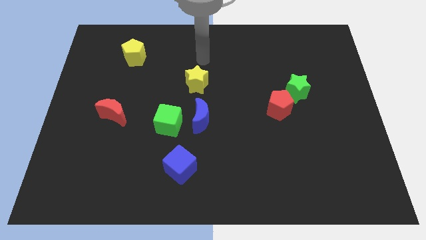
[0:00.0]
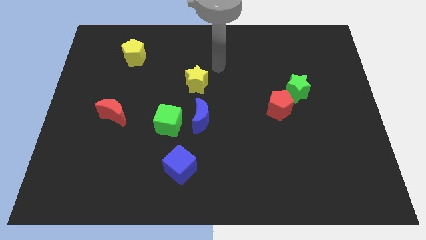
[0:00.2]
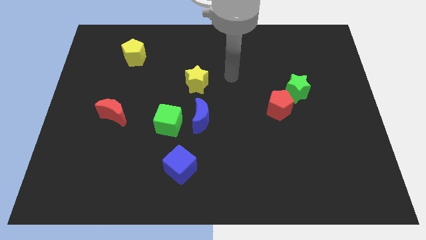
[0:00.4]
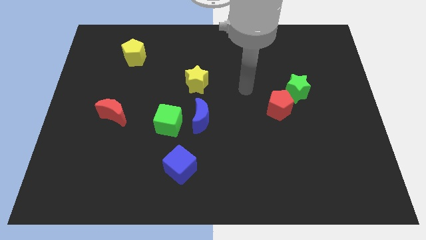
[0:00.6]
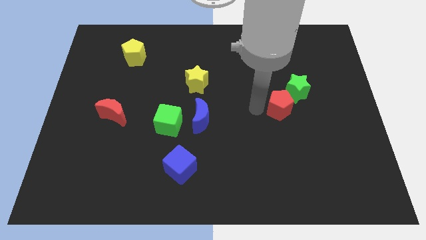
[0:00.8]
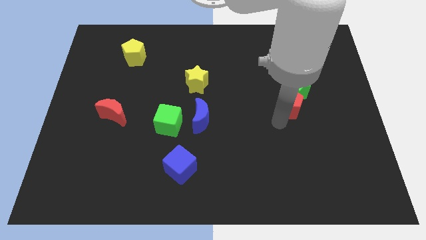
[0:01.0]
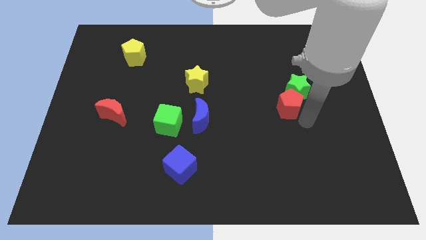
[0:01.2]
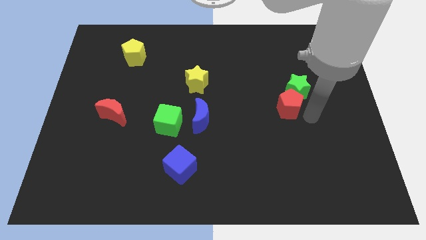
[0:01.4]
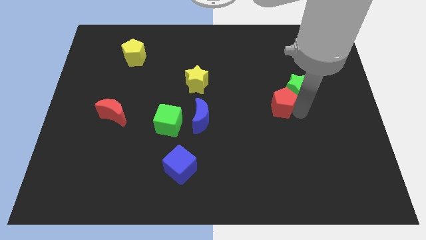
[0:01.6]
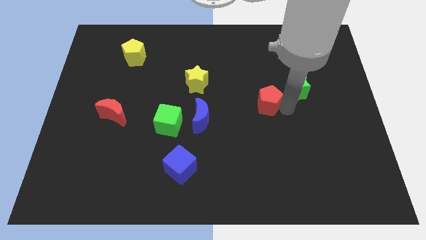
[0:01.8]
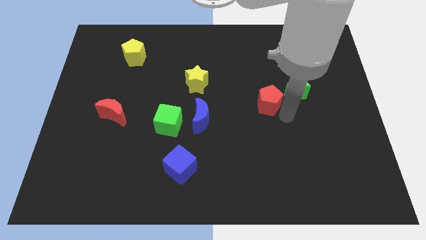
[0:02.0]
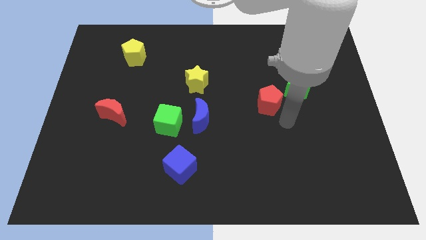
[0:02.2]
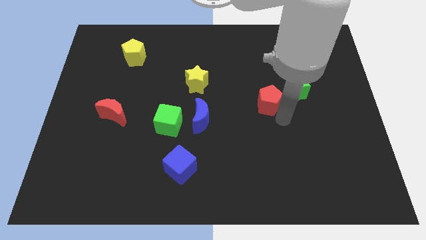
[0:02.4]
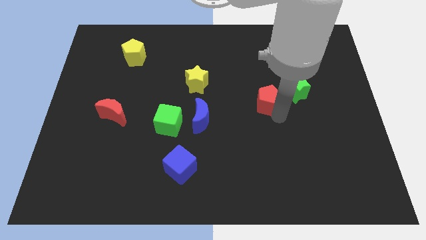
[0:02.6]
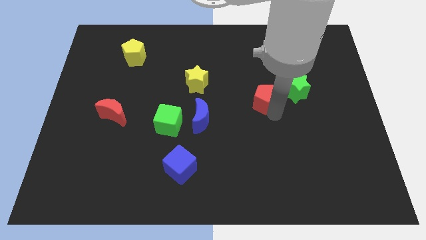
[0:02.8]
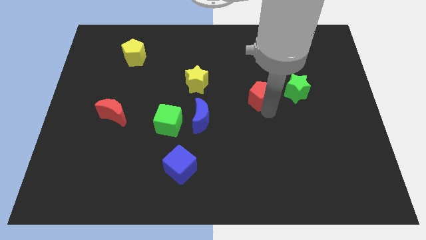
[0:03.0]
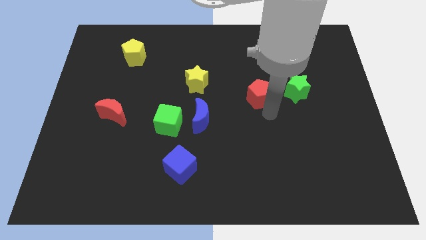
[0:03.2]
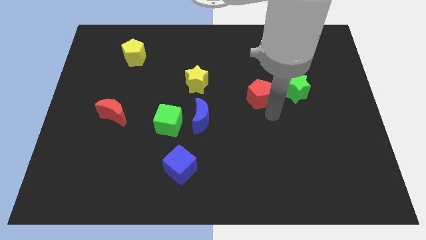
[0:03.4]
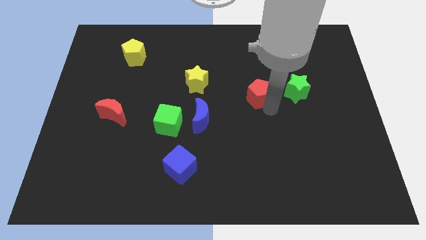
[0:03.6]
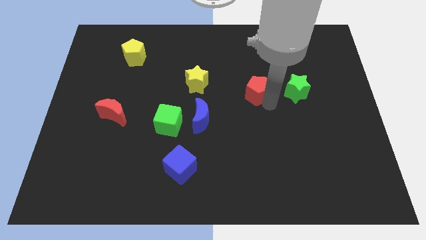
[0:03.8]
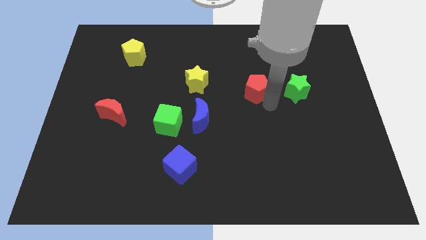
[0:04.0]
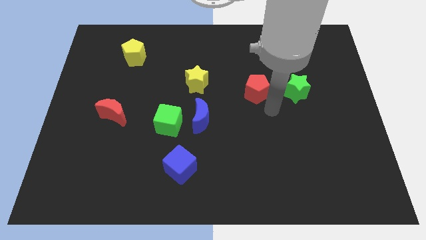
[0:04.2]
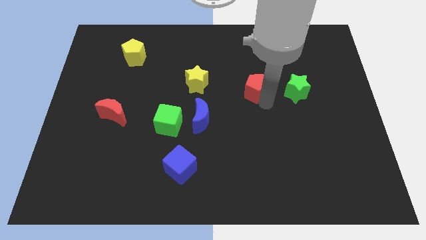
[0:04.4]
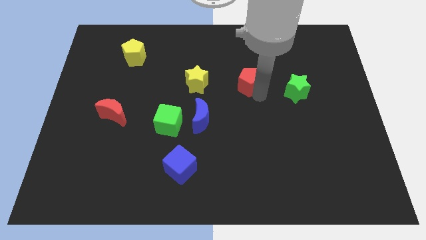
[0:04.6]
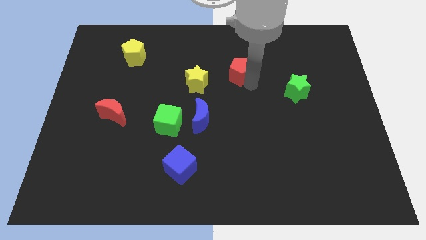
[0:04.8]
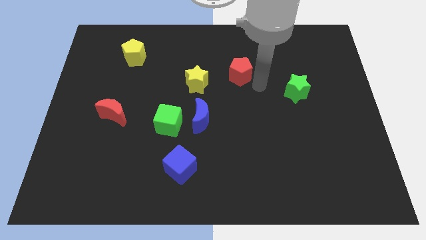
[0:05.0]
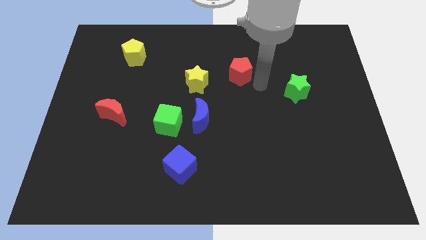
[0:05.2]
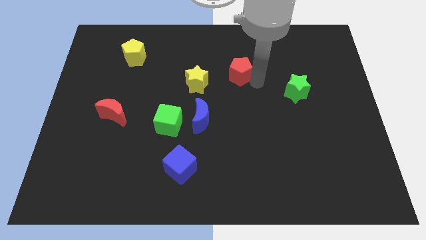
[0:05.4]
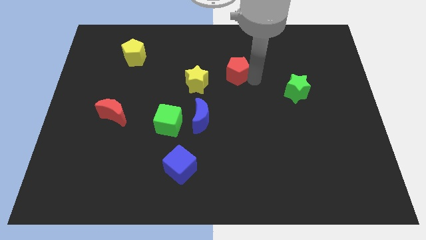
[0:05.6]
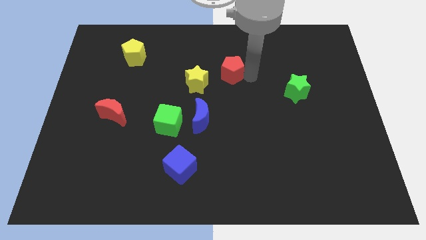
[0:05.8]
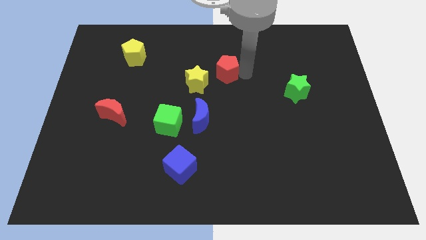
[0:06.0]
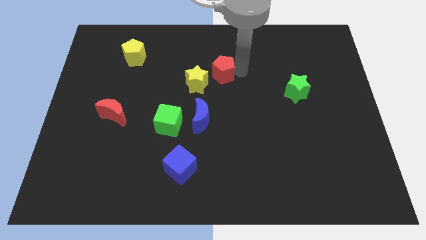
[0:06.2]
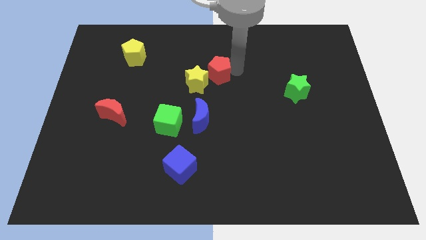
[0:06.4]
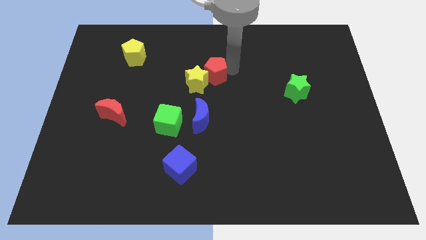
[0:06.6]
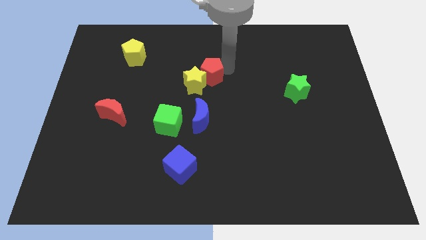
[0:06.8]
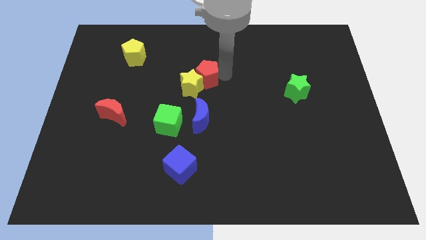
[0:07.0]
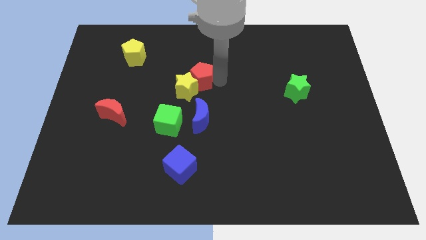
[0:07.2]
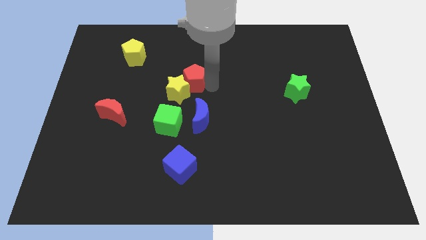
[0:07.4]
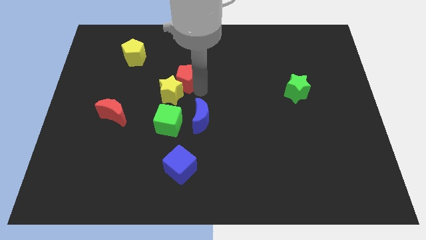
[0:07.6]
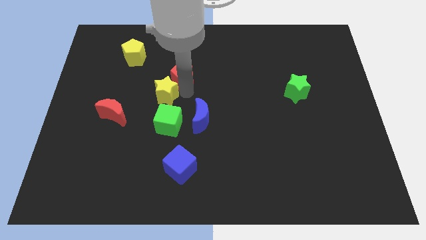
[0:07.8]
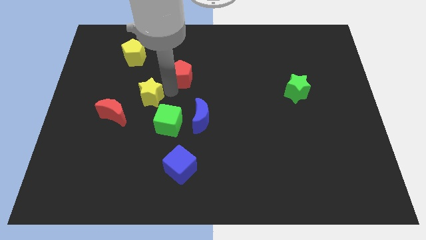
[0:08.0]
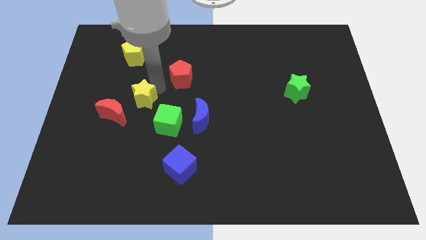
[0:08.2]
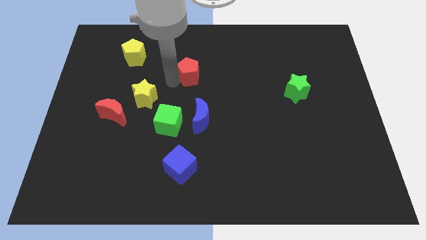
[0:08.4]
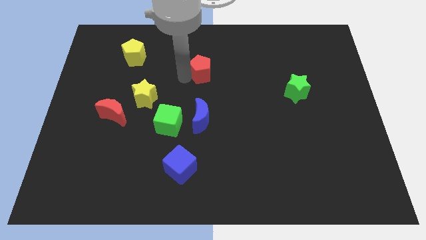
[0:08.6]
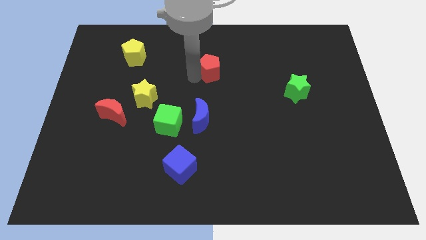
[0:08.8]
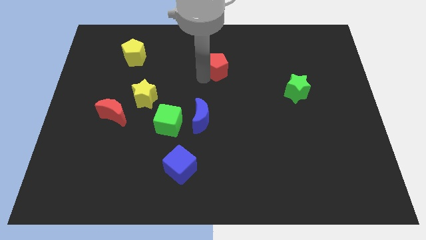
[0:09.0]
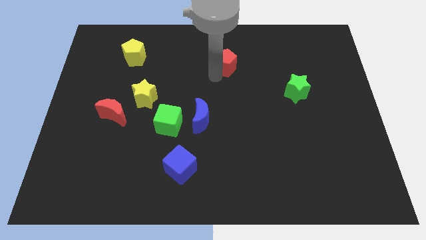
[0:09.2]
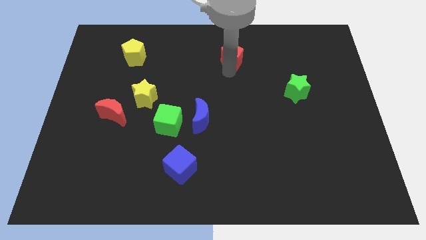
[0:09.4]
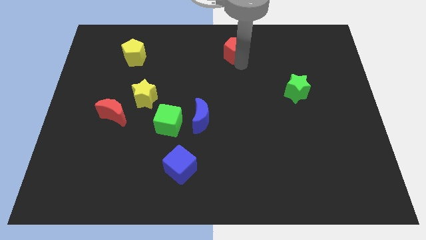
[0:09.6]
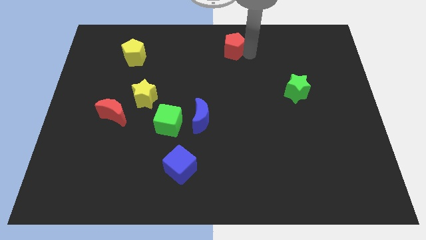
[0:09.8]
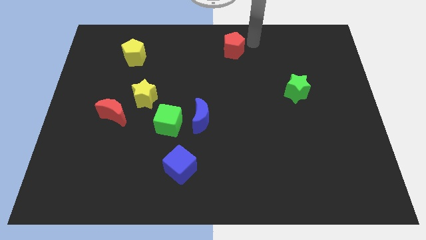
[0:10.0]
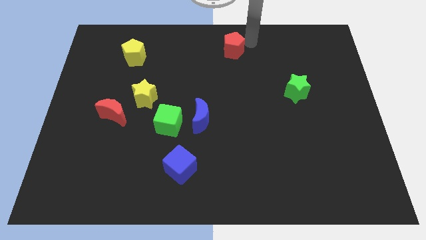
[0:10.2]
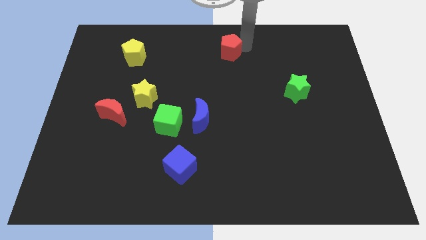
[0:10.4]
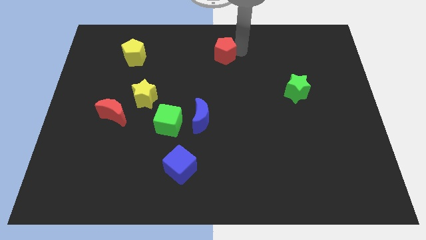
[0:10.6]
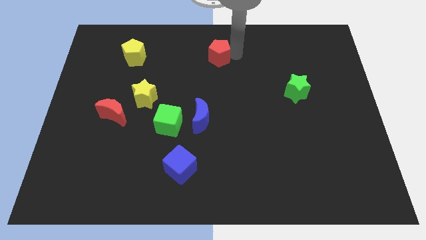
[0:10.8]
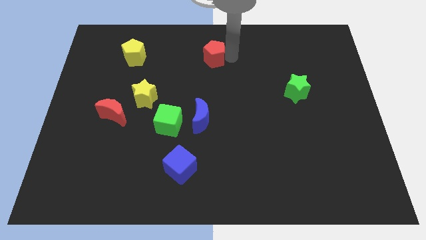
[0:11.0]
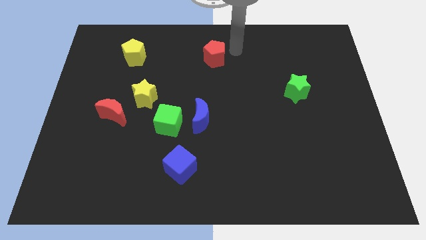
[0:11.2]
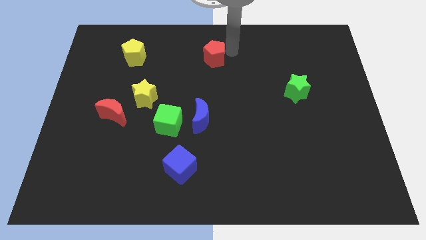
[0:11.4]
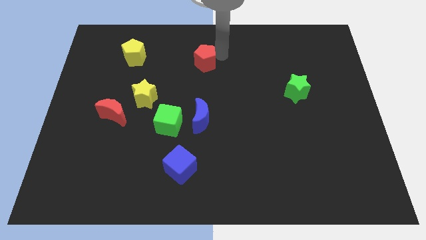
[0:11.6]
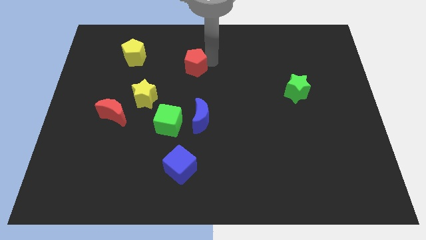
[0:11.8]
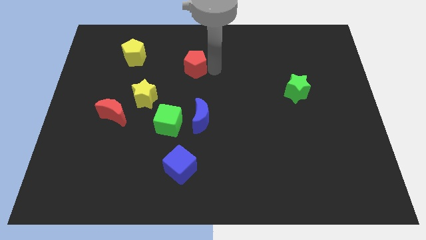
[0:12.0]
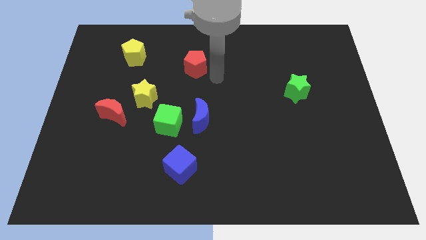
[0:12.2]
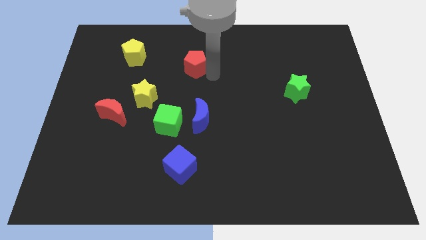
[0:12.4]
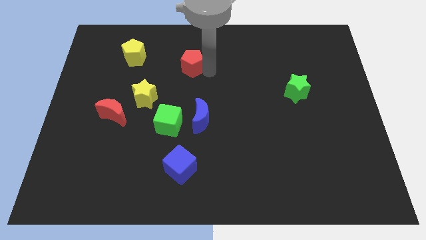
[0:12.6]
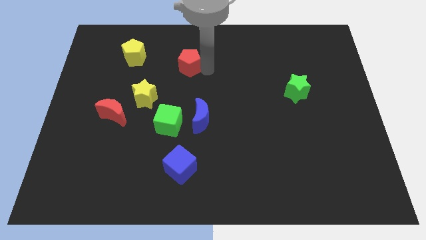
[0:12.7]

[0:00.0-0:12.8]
push the red pentagon to the right of the yellow pentagon
